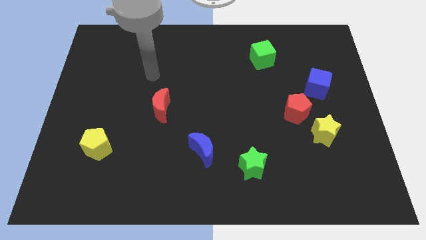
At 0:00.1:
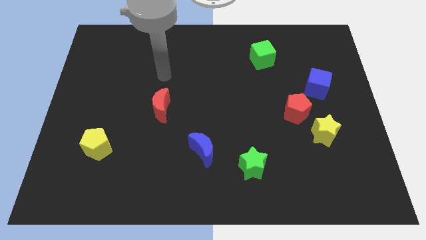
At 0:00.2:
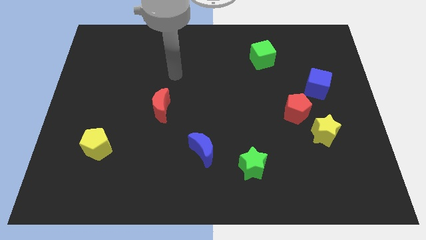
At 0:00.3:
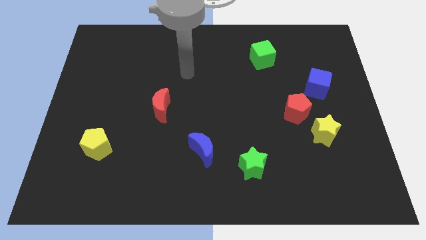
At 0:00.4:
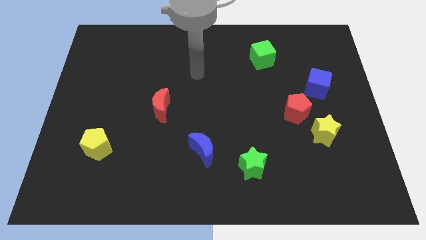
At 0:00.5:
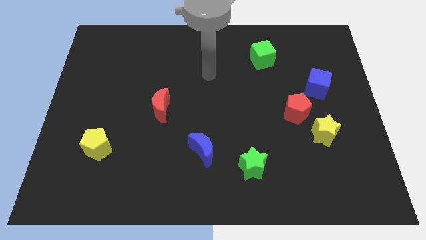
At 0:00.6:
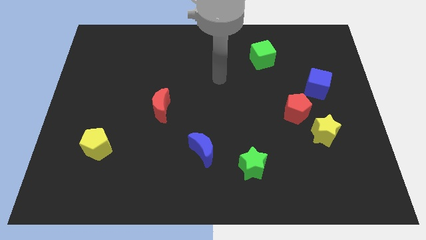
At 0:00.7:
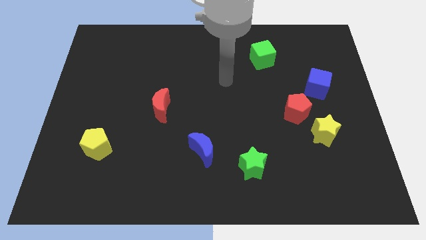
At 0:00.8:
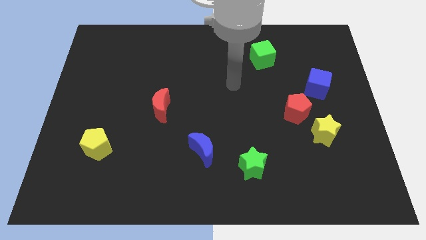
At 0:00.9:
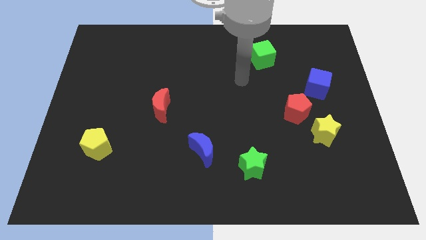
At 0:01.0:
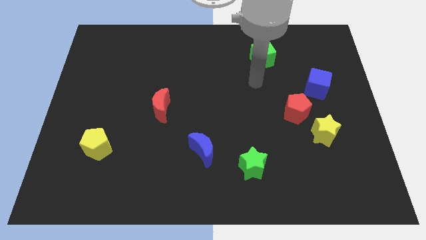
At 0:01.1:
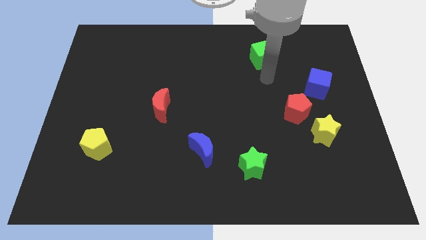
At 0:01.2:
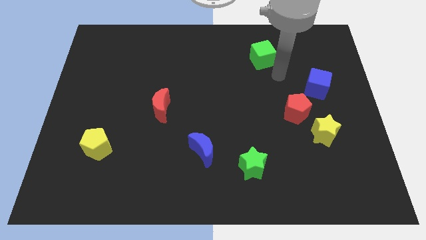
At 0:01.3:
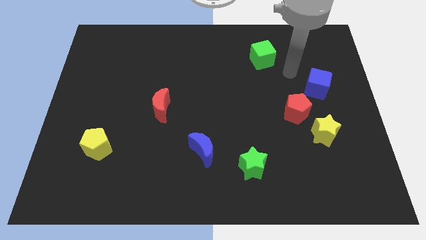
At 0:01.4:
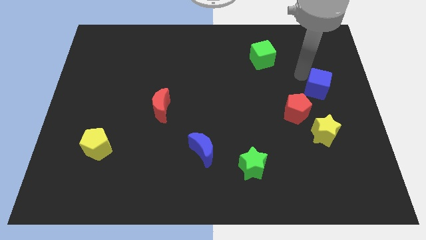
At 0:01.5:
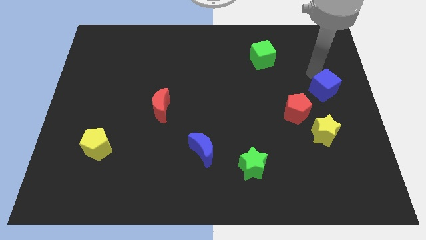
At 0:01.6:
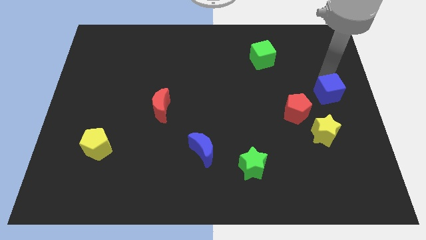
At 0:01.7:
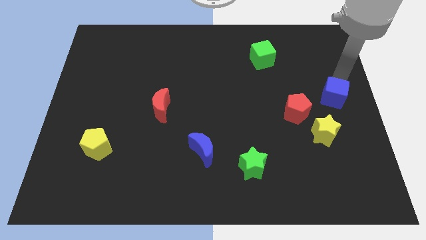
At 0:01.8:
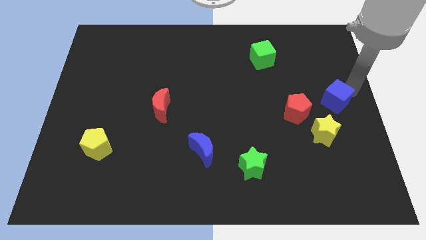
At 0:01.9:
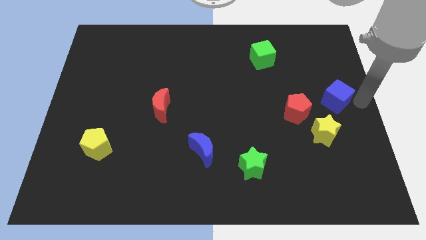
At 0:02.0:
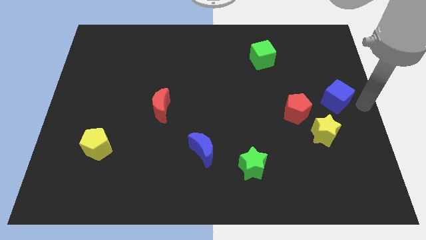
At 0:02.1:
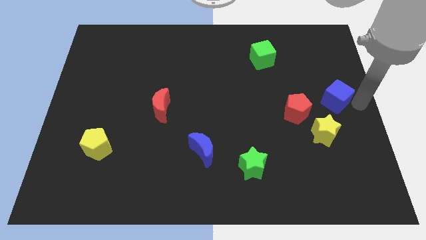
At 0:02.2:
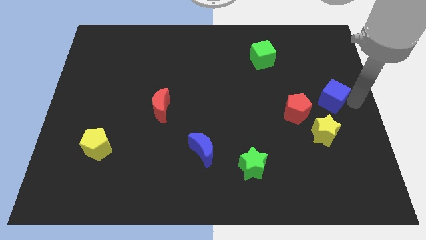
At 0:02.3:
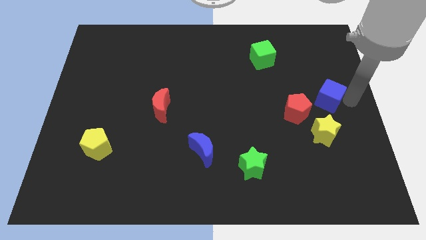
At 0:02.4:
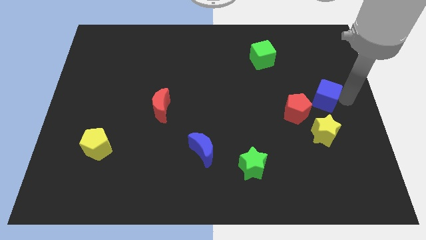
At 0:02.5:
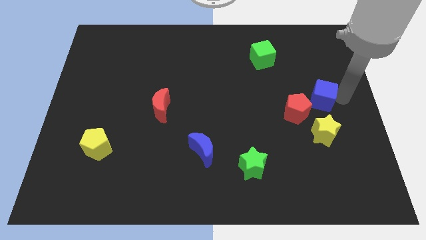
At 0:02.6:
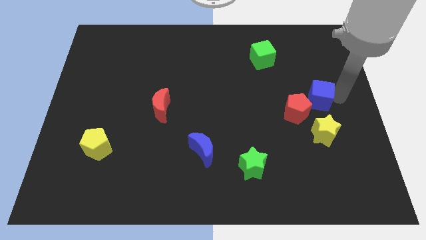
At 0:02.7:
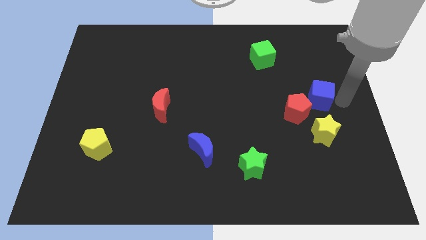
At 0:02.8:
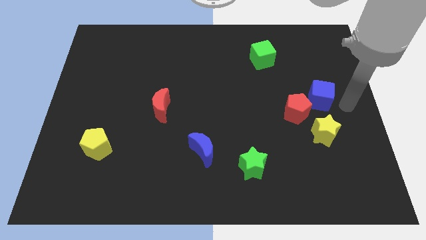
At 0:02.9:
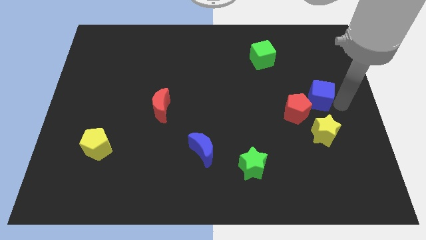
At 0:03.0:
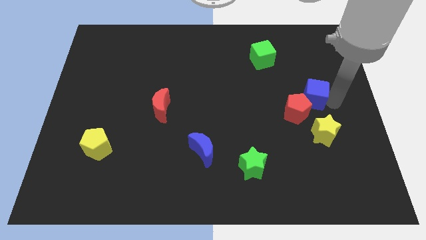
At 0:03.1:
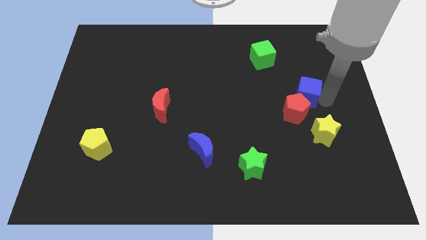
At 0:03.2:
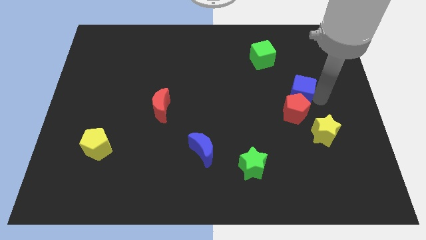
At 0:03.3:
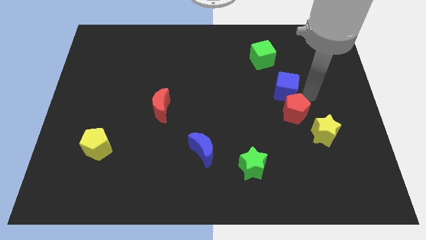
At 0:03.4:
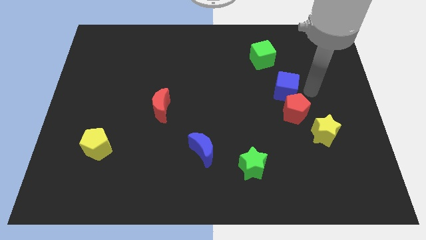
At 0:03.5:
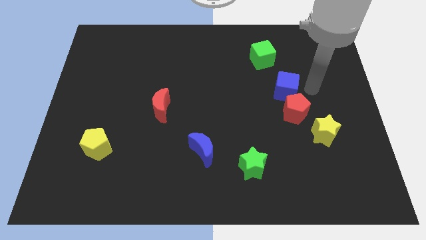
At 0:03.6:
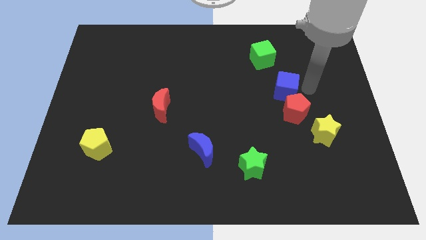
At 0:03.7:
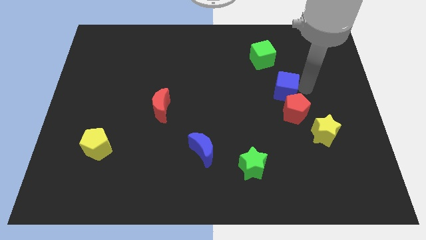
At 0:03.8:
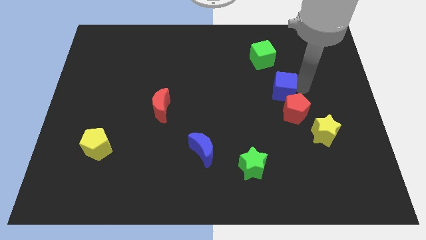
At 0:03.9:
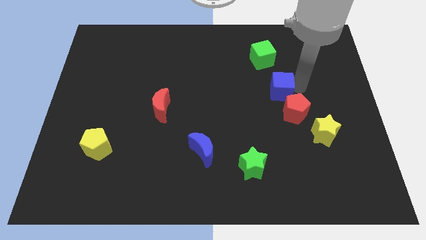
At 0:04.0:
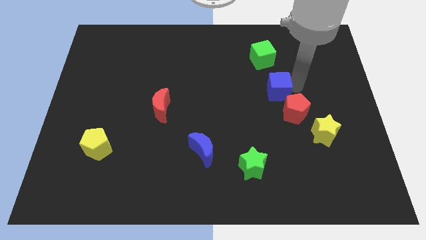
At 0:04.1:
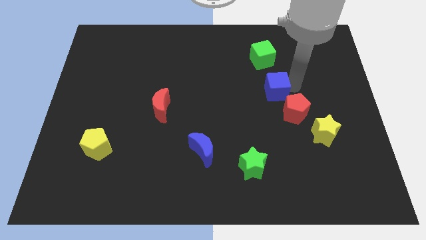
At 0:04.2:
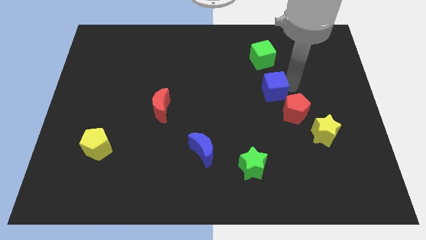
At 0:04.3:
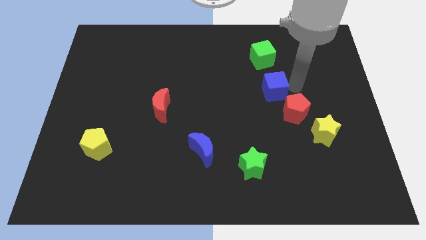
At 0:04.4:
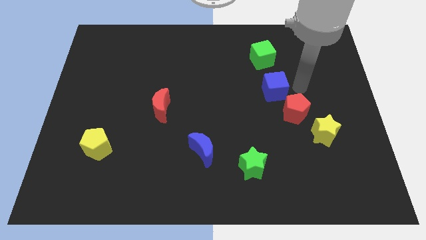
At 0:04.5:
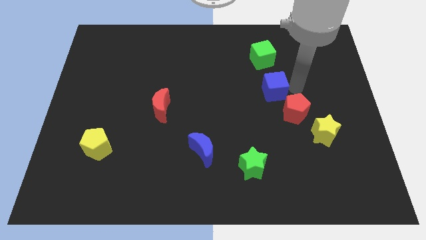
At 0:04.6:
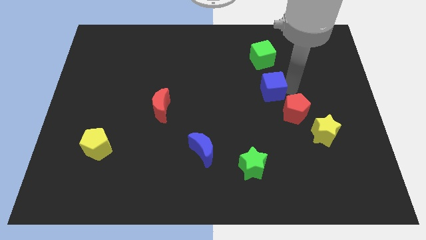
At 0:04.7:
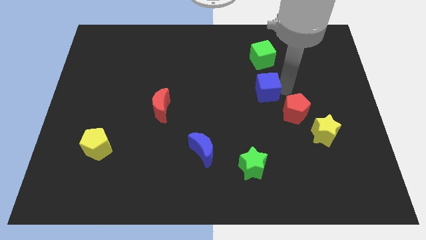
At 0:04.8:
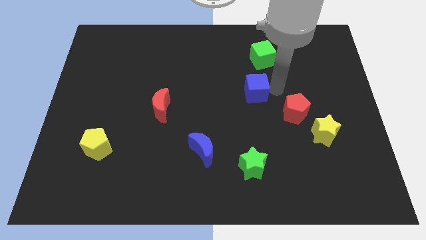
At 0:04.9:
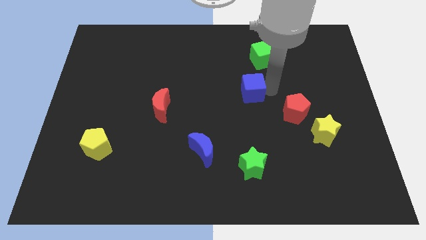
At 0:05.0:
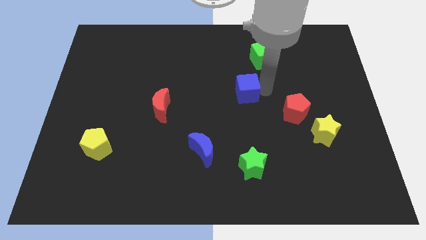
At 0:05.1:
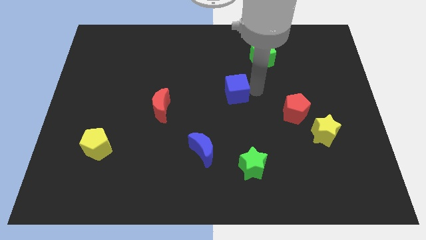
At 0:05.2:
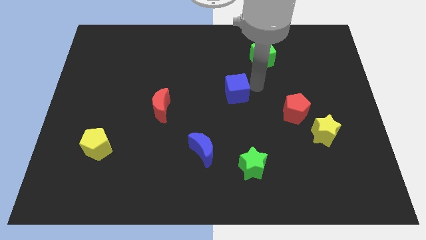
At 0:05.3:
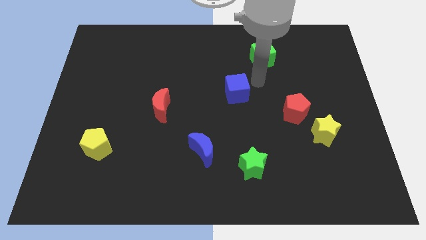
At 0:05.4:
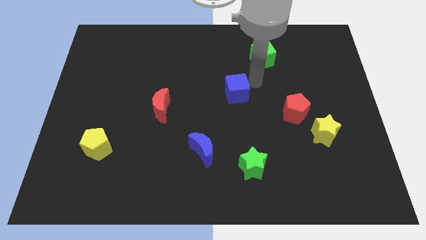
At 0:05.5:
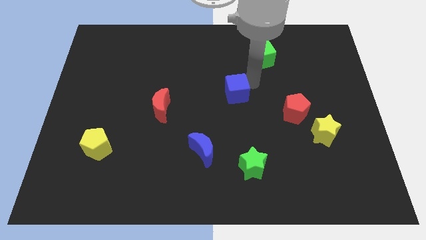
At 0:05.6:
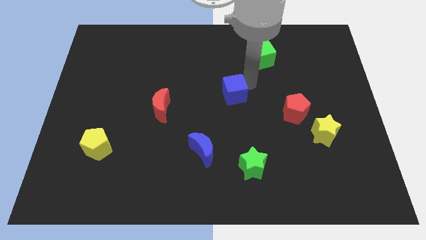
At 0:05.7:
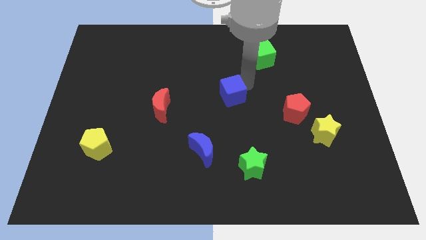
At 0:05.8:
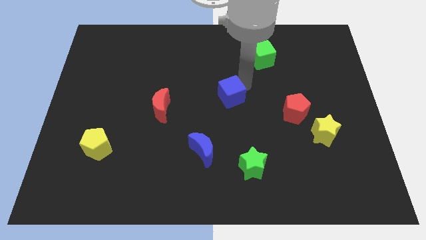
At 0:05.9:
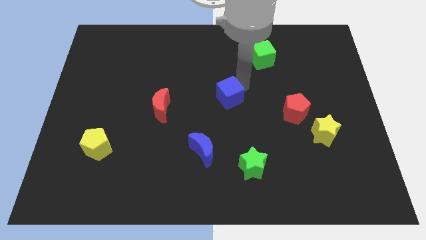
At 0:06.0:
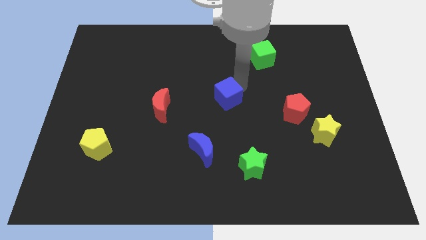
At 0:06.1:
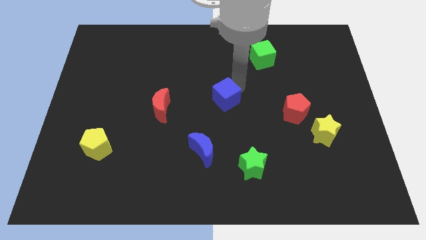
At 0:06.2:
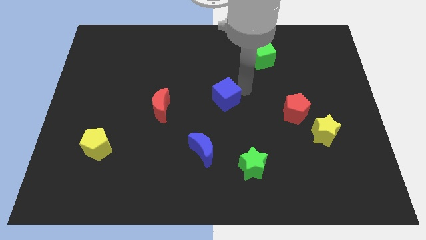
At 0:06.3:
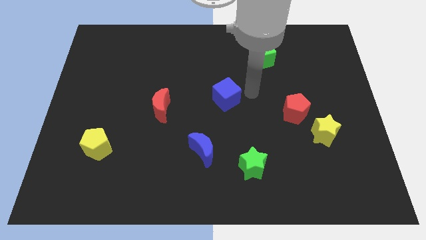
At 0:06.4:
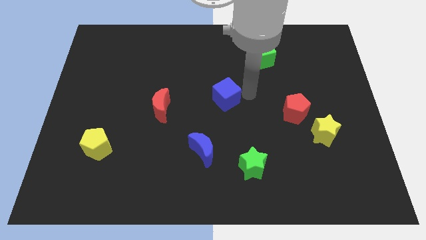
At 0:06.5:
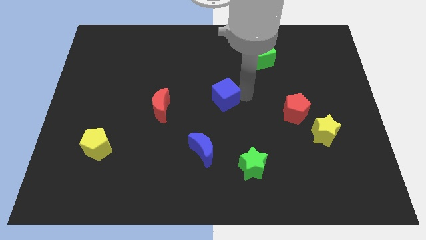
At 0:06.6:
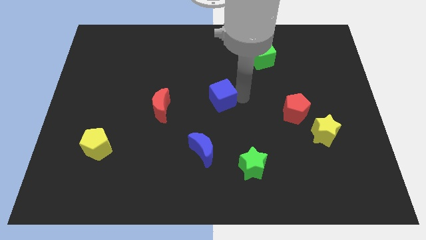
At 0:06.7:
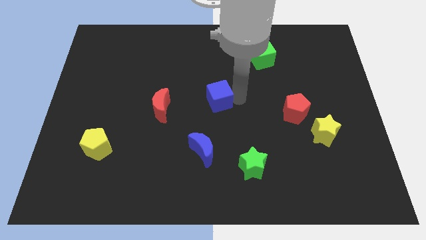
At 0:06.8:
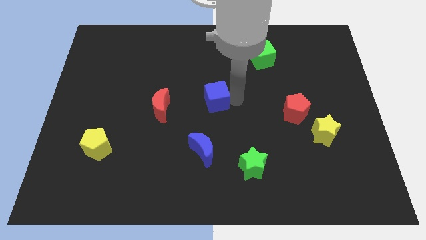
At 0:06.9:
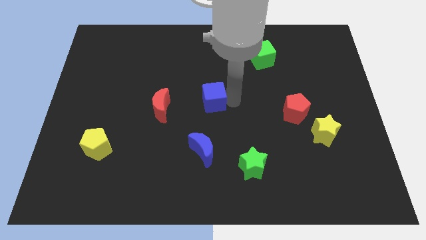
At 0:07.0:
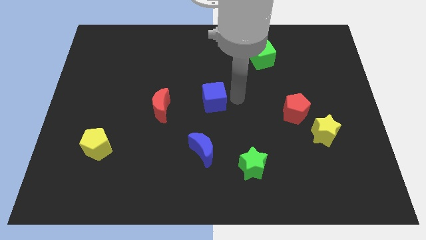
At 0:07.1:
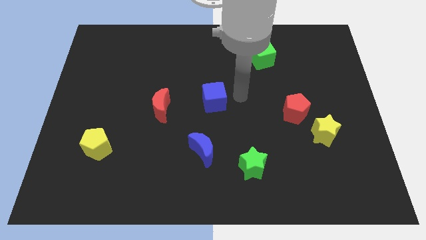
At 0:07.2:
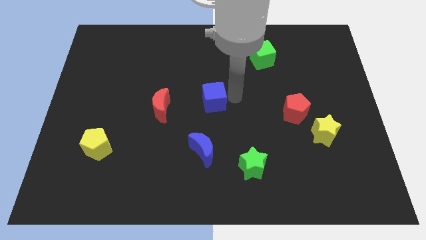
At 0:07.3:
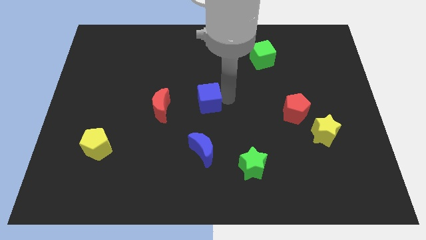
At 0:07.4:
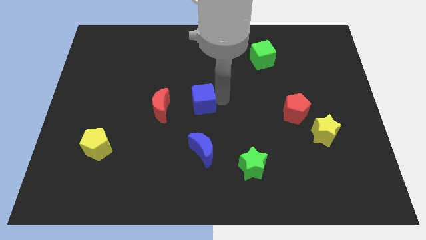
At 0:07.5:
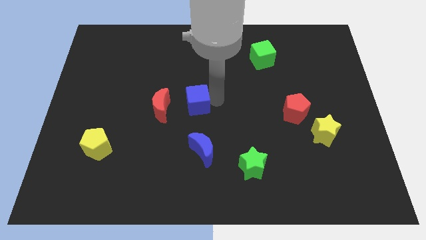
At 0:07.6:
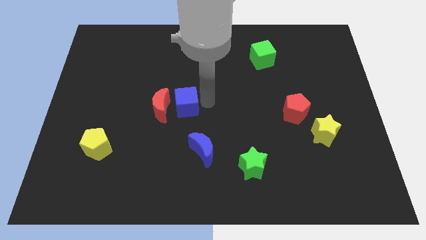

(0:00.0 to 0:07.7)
slide the blue cube to the red moon

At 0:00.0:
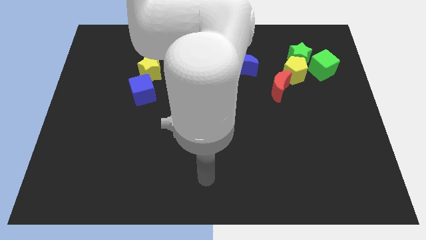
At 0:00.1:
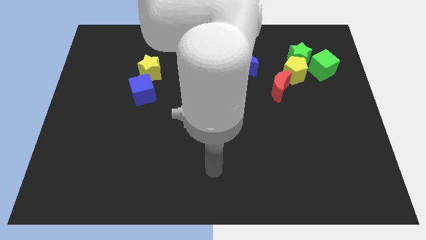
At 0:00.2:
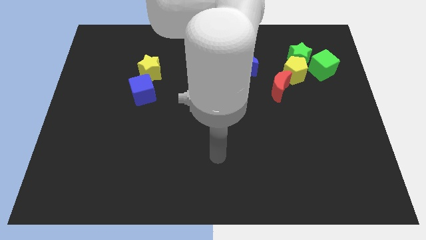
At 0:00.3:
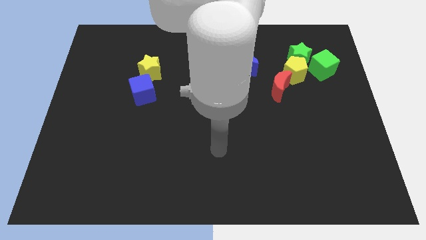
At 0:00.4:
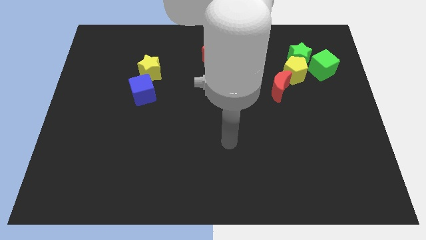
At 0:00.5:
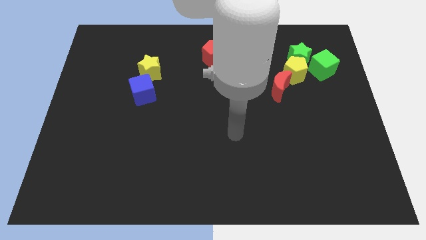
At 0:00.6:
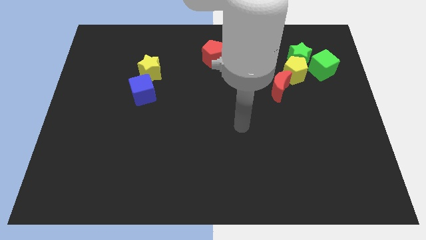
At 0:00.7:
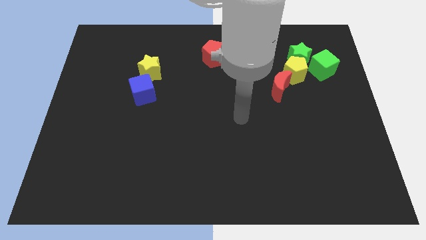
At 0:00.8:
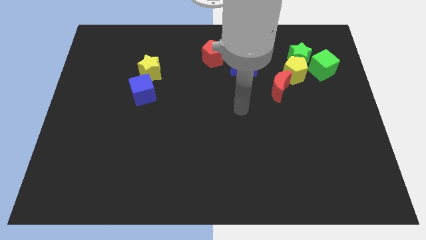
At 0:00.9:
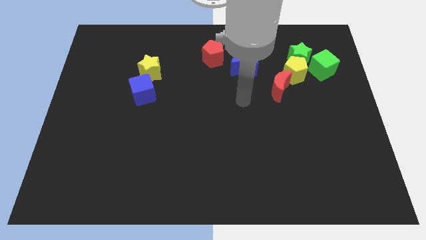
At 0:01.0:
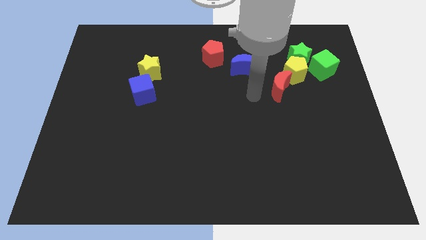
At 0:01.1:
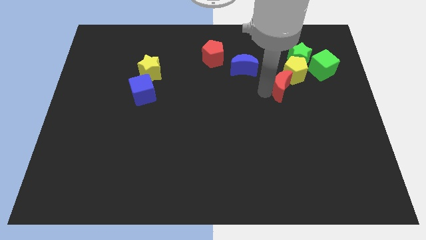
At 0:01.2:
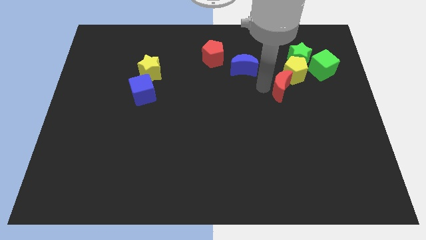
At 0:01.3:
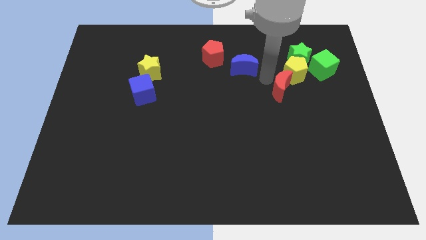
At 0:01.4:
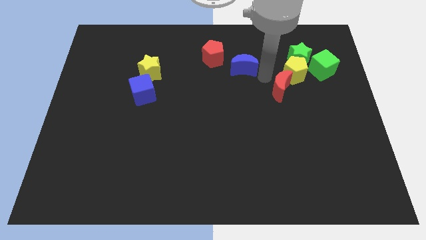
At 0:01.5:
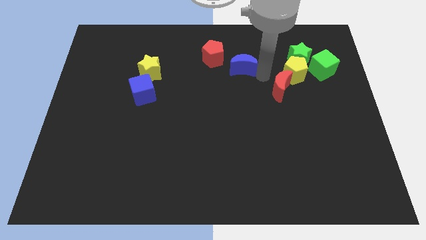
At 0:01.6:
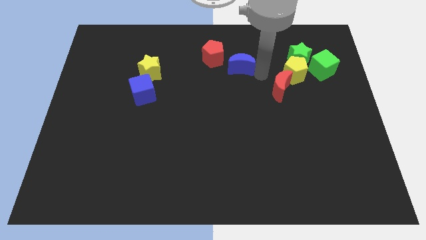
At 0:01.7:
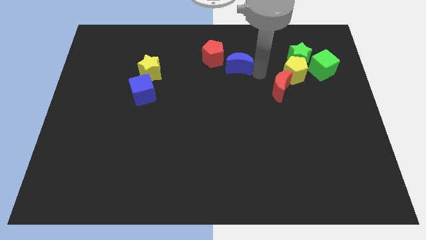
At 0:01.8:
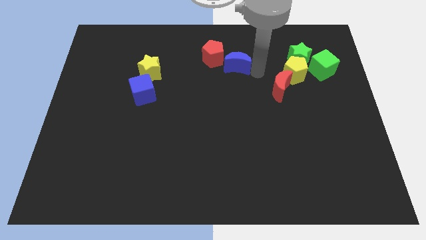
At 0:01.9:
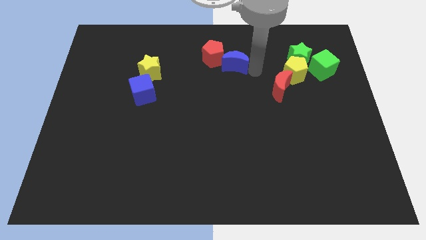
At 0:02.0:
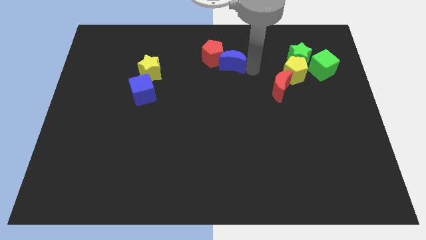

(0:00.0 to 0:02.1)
move the blue moon to the red pentagon
